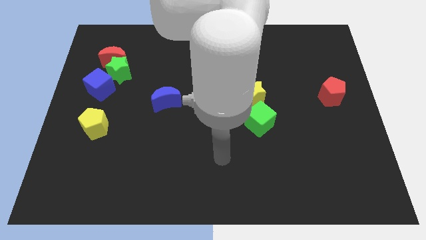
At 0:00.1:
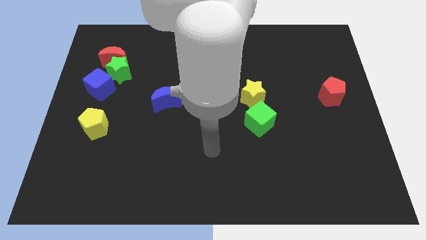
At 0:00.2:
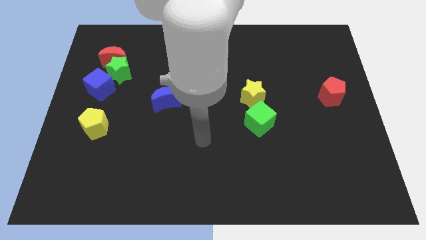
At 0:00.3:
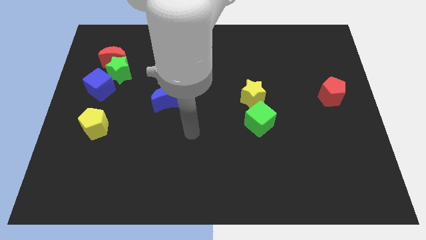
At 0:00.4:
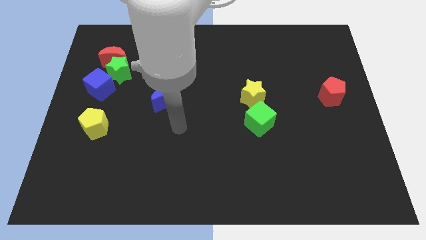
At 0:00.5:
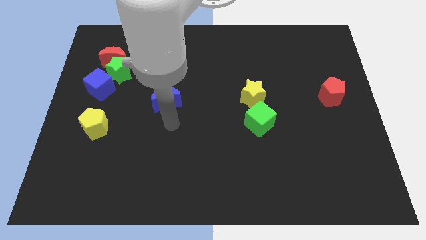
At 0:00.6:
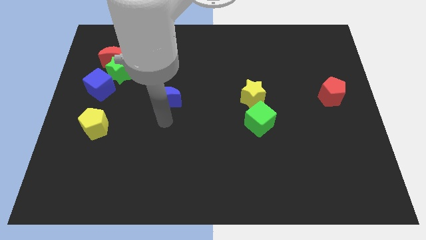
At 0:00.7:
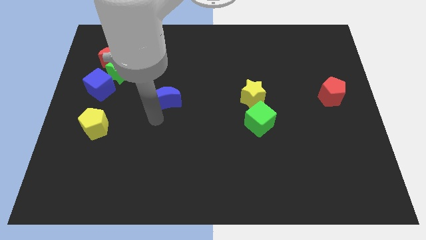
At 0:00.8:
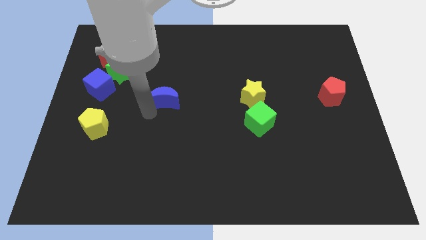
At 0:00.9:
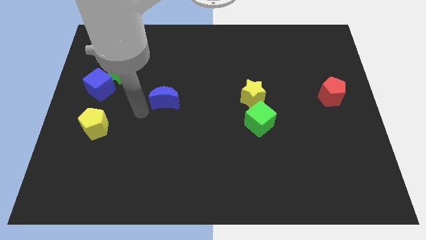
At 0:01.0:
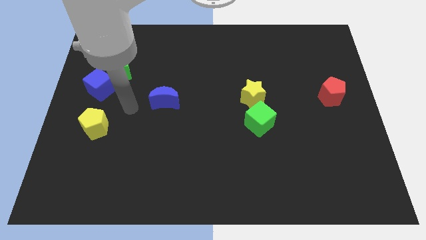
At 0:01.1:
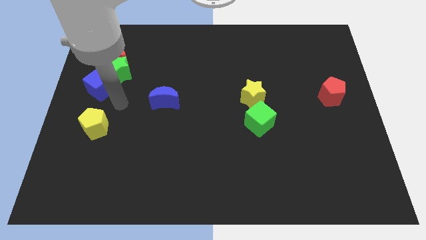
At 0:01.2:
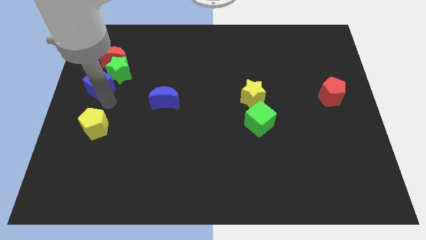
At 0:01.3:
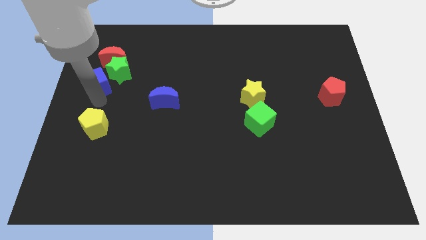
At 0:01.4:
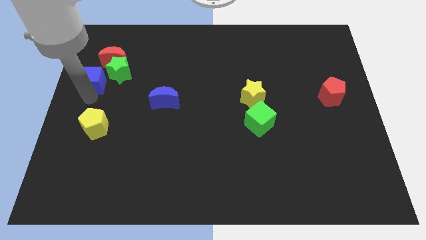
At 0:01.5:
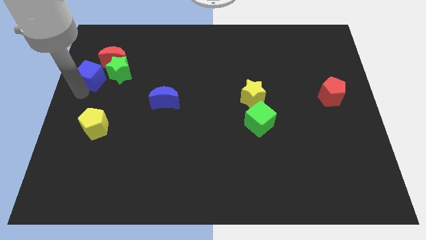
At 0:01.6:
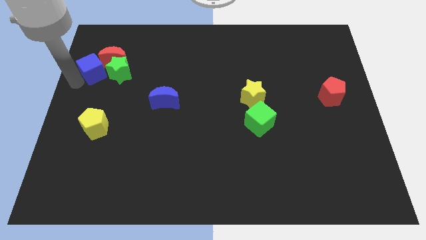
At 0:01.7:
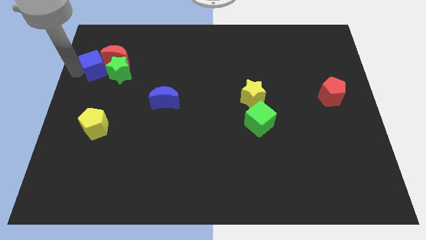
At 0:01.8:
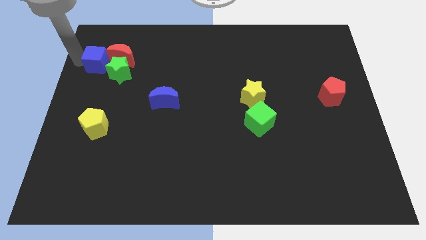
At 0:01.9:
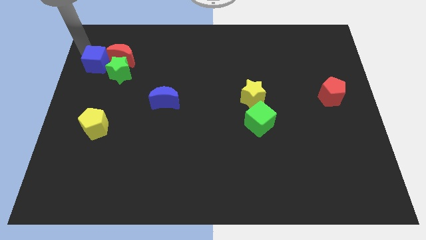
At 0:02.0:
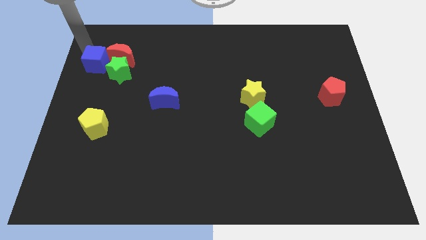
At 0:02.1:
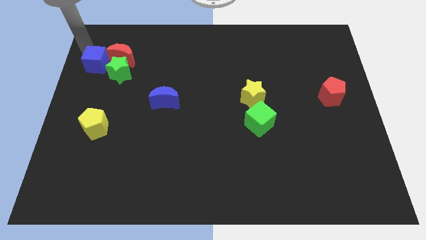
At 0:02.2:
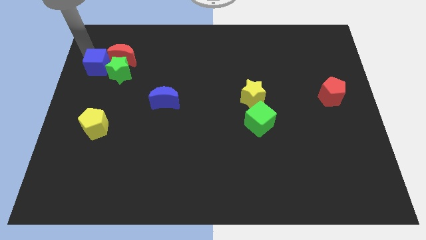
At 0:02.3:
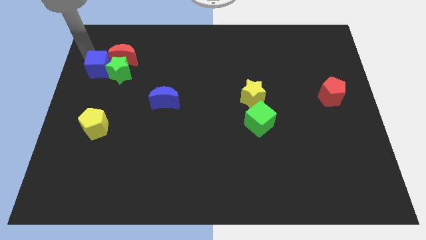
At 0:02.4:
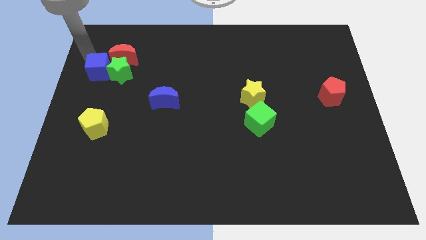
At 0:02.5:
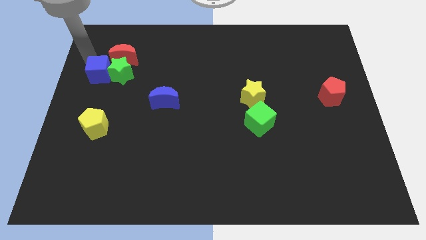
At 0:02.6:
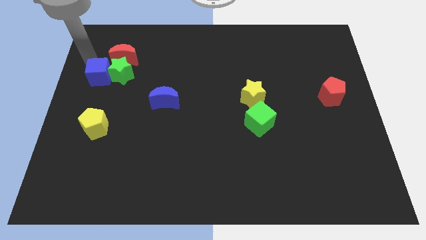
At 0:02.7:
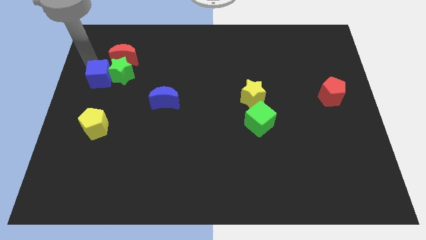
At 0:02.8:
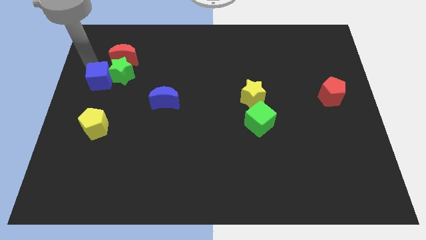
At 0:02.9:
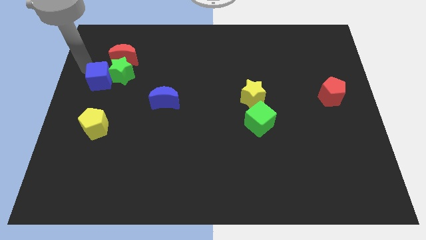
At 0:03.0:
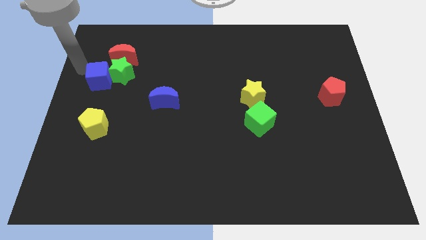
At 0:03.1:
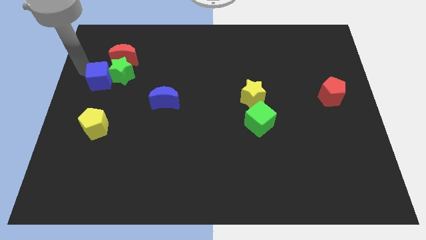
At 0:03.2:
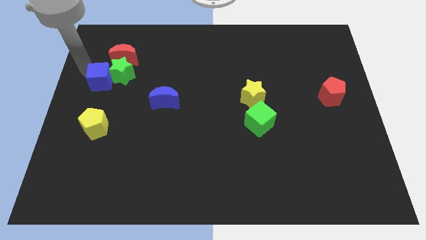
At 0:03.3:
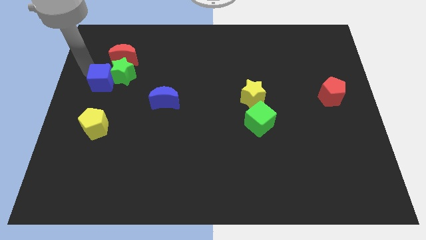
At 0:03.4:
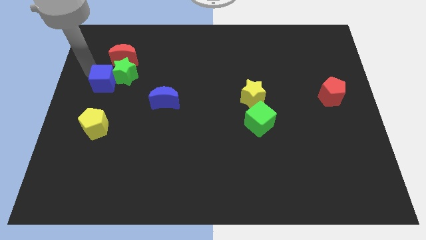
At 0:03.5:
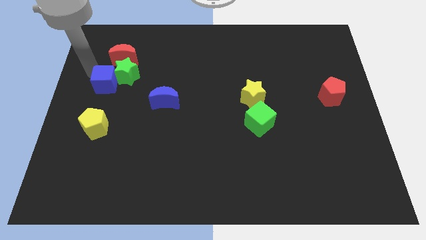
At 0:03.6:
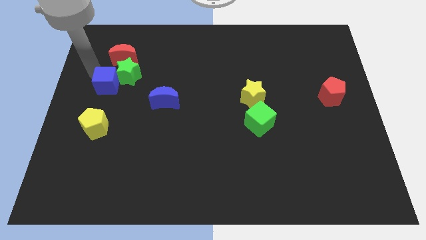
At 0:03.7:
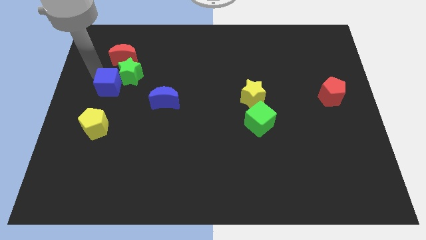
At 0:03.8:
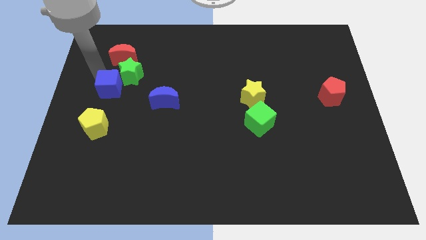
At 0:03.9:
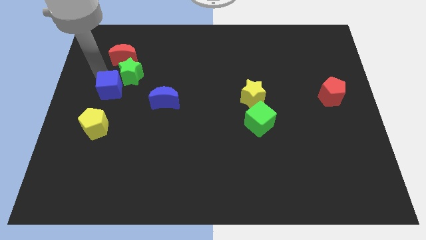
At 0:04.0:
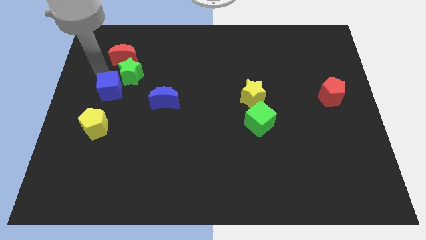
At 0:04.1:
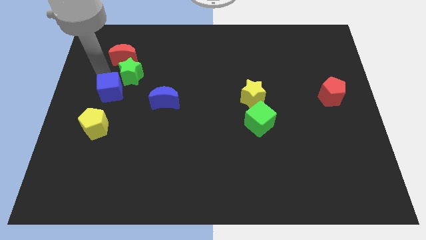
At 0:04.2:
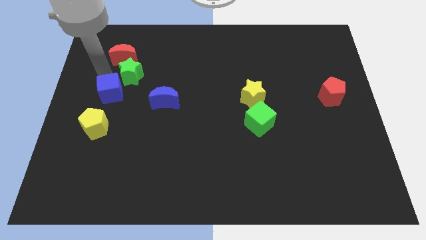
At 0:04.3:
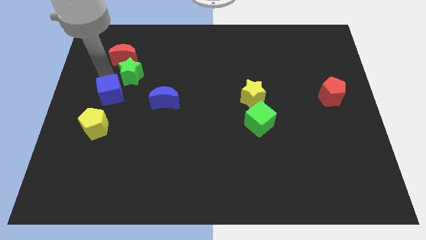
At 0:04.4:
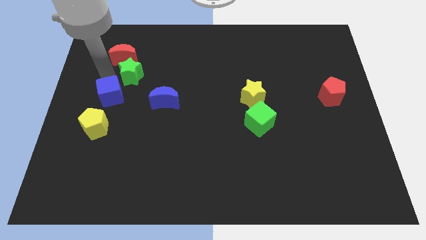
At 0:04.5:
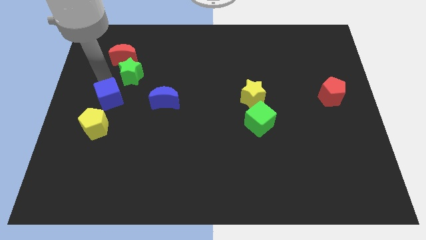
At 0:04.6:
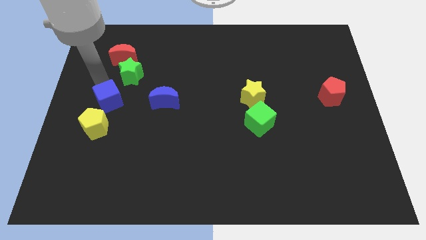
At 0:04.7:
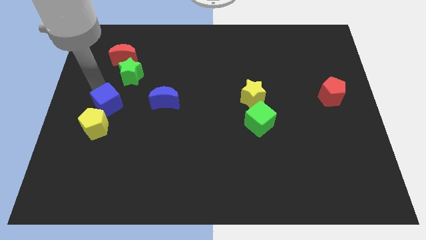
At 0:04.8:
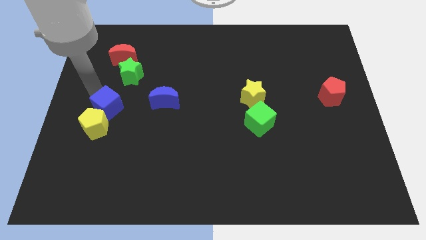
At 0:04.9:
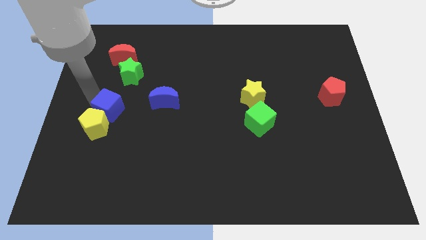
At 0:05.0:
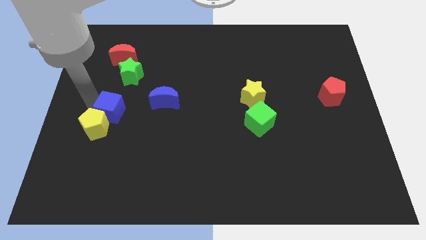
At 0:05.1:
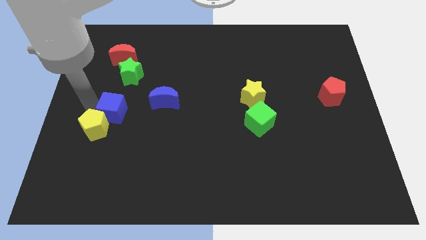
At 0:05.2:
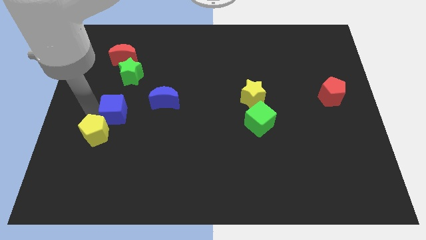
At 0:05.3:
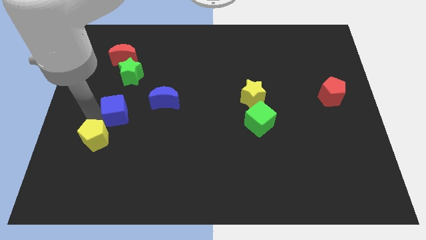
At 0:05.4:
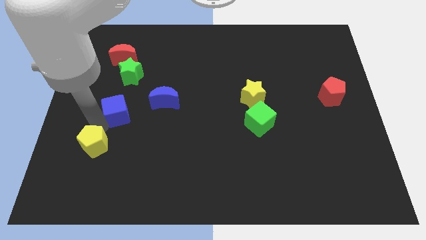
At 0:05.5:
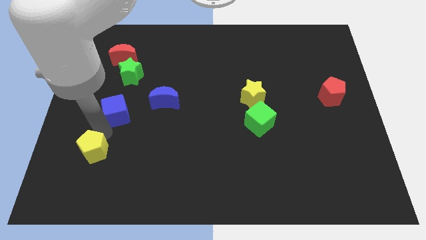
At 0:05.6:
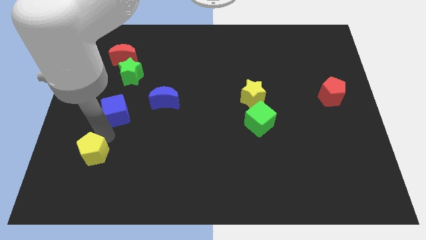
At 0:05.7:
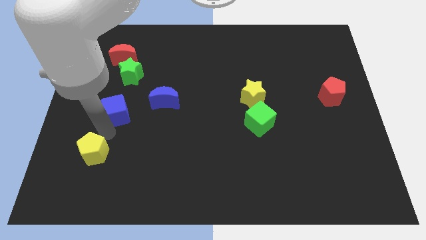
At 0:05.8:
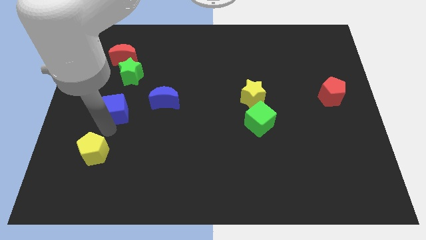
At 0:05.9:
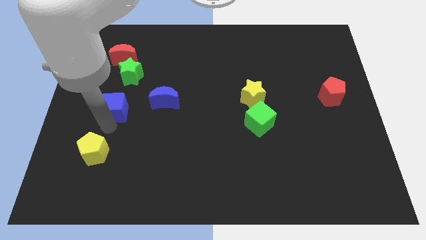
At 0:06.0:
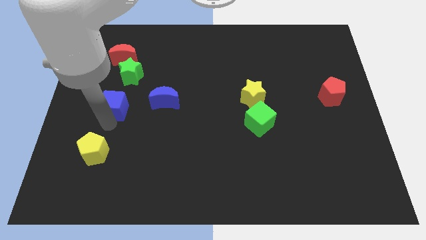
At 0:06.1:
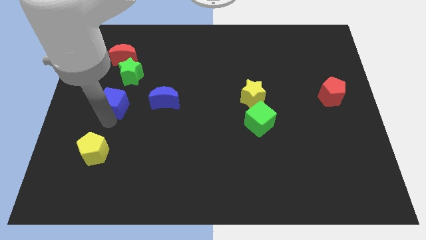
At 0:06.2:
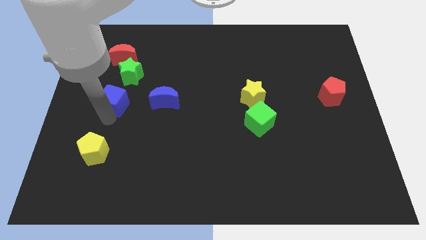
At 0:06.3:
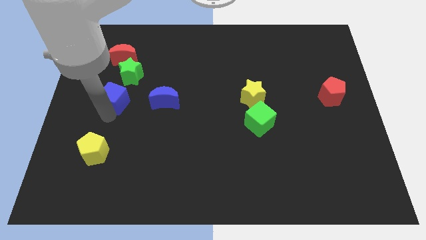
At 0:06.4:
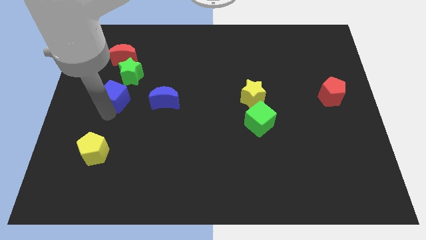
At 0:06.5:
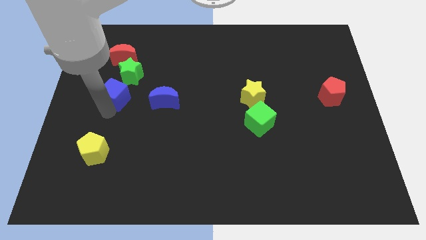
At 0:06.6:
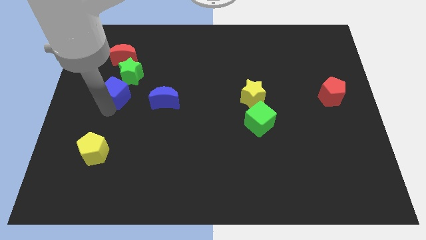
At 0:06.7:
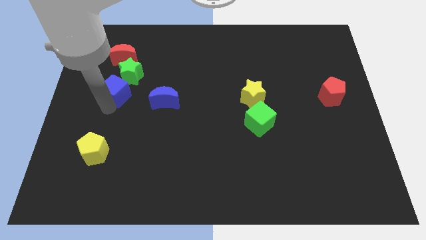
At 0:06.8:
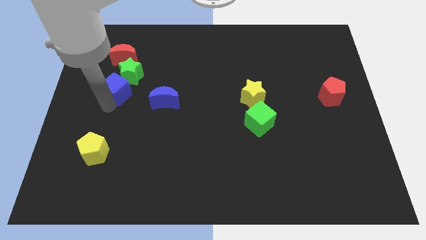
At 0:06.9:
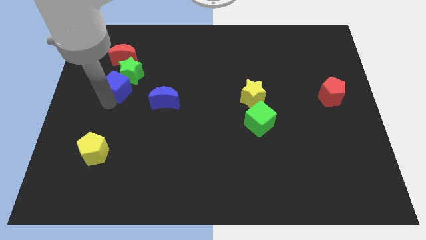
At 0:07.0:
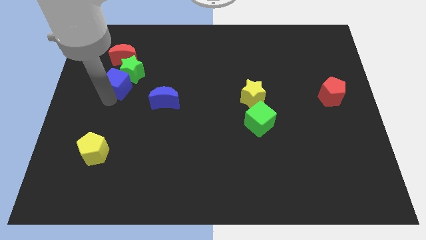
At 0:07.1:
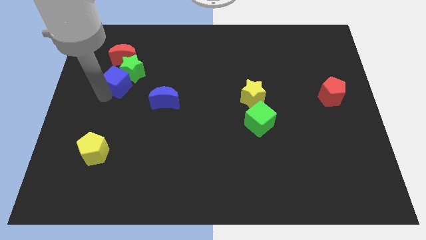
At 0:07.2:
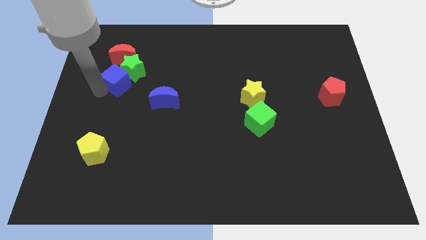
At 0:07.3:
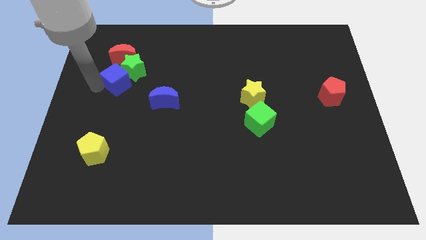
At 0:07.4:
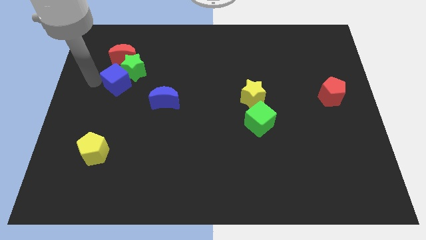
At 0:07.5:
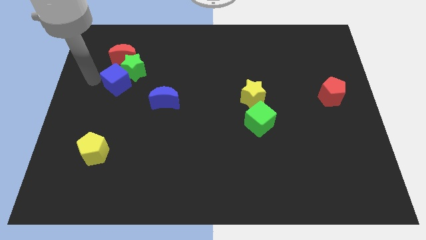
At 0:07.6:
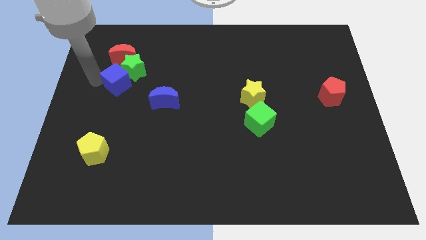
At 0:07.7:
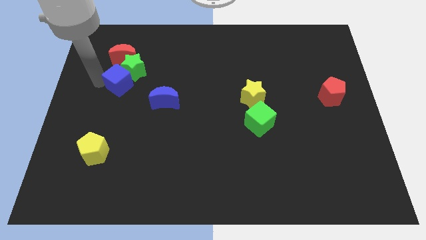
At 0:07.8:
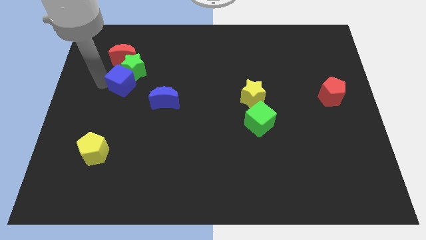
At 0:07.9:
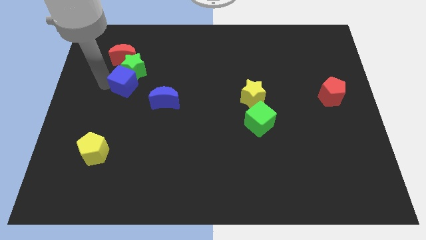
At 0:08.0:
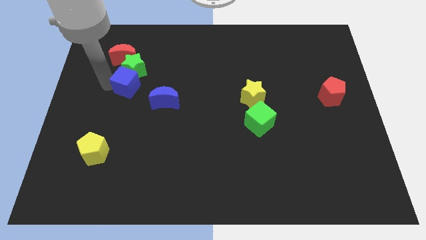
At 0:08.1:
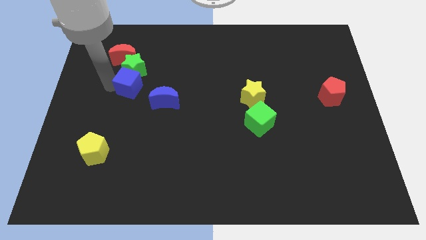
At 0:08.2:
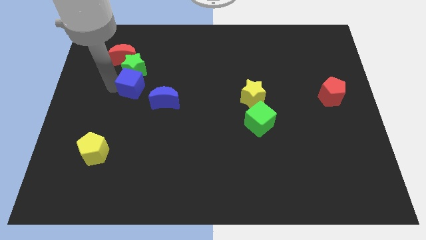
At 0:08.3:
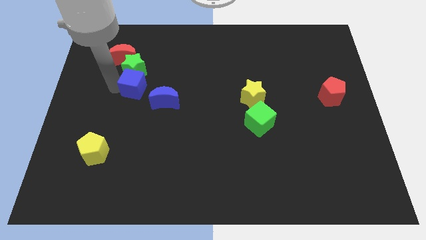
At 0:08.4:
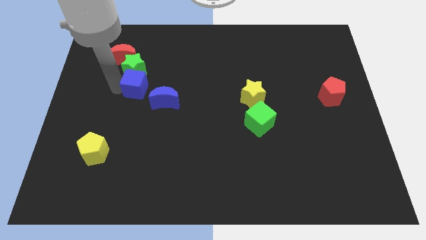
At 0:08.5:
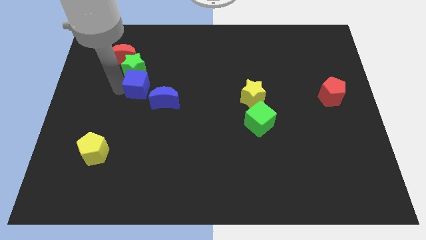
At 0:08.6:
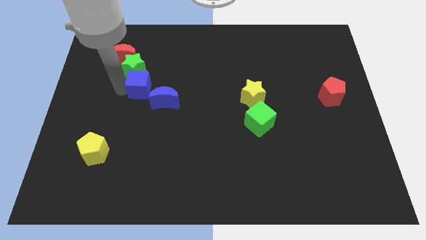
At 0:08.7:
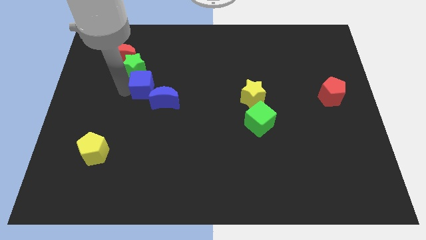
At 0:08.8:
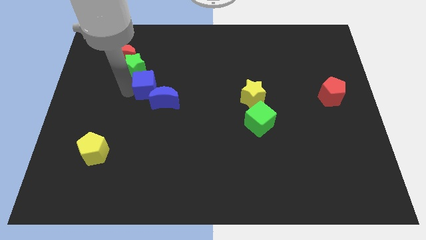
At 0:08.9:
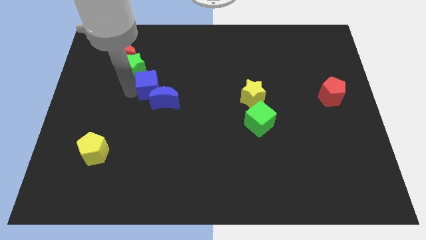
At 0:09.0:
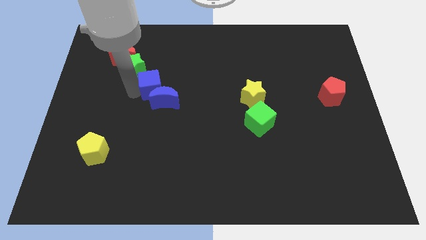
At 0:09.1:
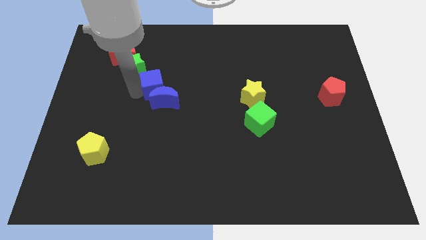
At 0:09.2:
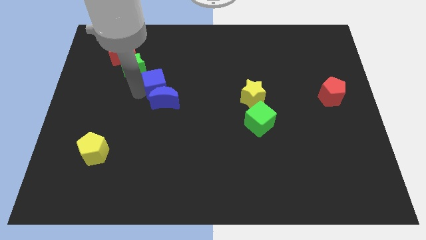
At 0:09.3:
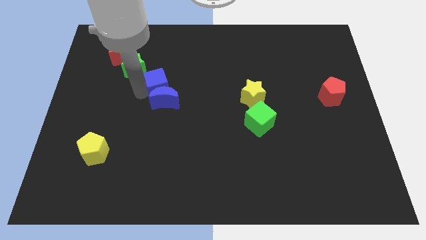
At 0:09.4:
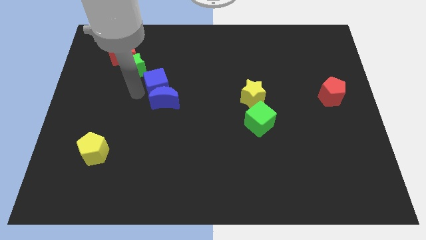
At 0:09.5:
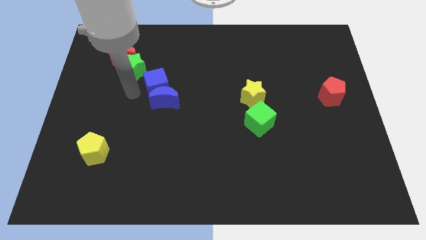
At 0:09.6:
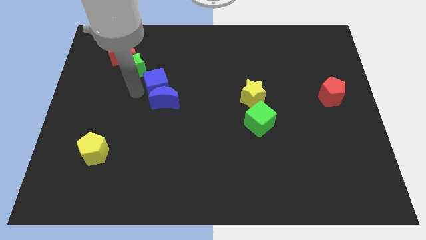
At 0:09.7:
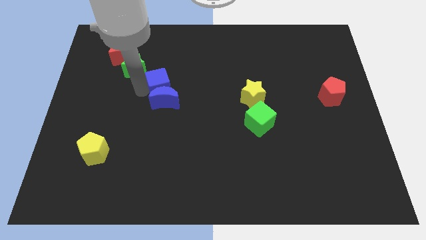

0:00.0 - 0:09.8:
slide the blue cube to the top right of the blue moon
